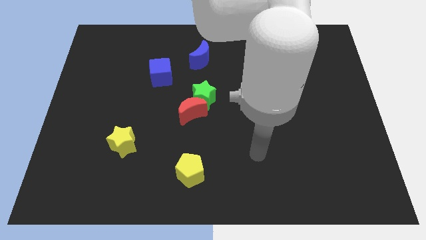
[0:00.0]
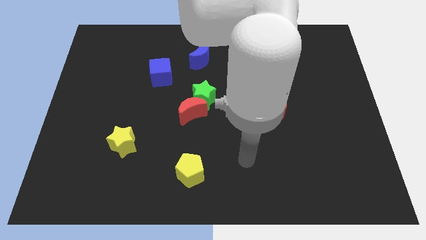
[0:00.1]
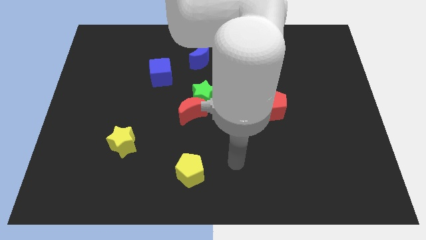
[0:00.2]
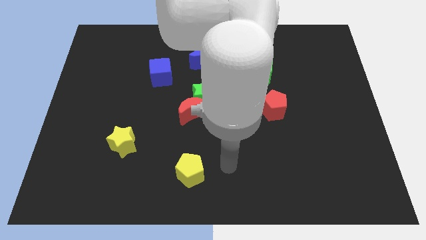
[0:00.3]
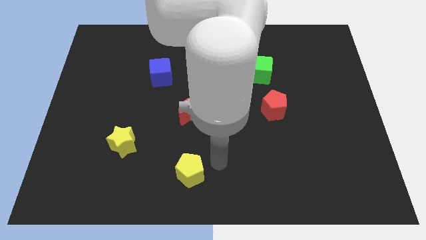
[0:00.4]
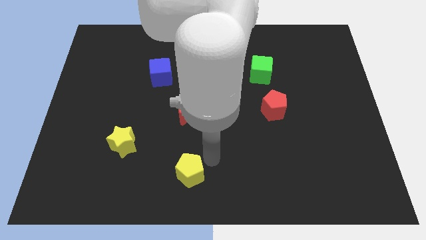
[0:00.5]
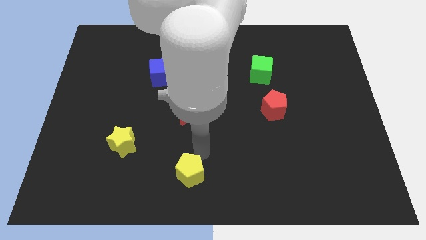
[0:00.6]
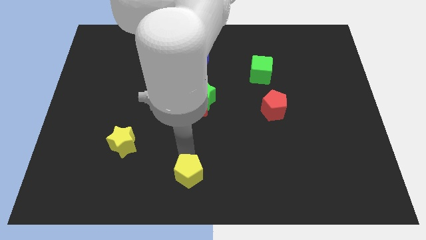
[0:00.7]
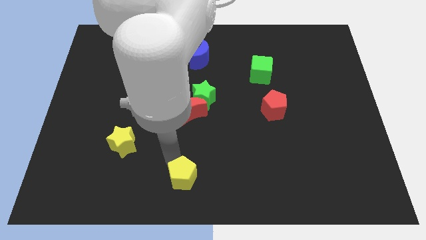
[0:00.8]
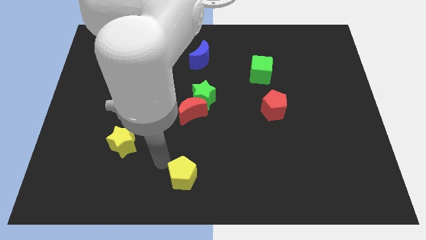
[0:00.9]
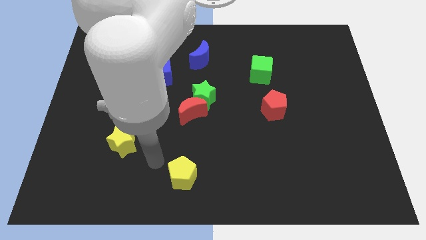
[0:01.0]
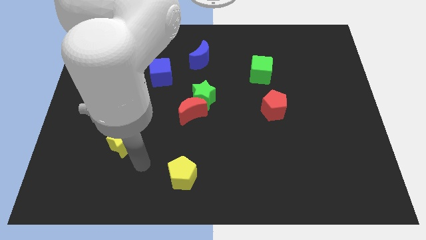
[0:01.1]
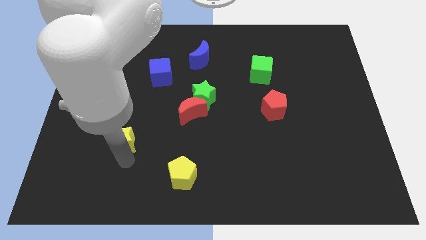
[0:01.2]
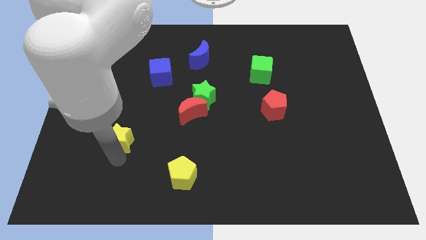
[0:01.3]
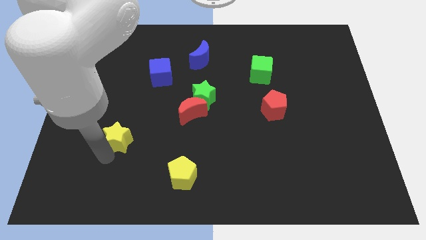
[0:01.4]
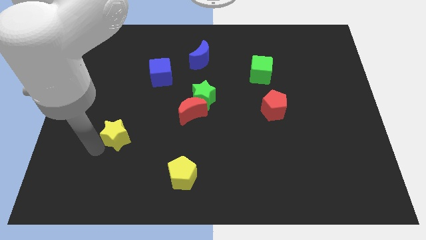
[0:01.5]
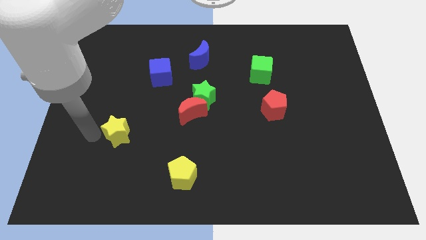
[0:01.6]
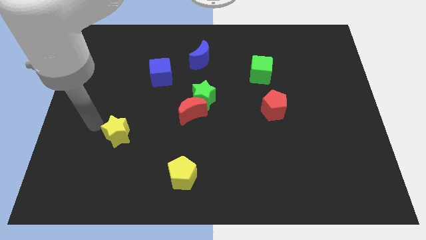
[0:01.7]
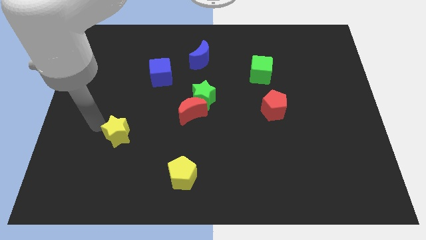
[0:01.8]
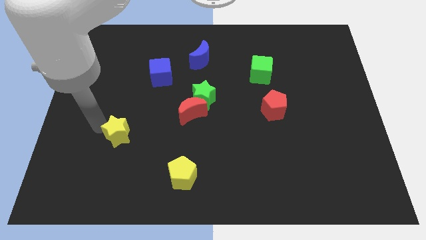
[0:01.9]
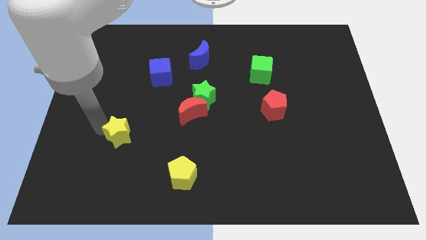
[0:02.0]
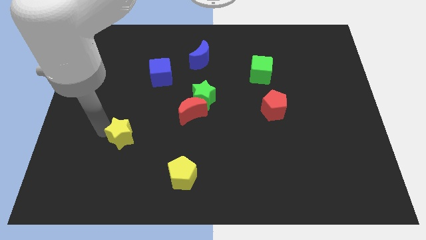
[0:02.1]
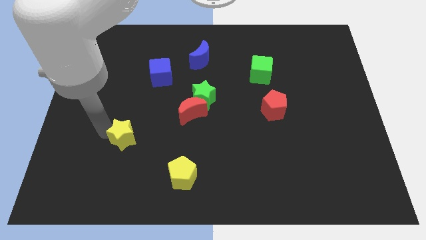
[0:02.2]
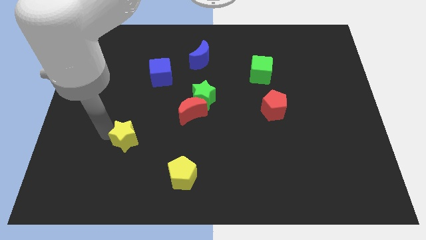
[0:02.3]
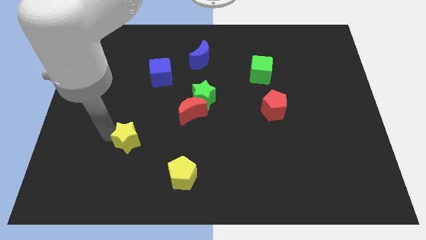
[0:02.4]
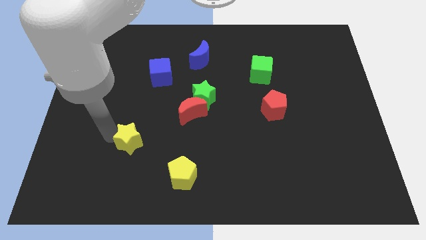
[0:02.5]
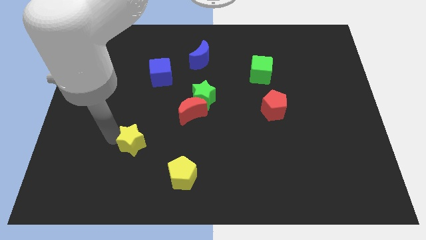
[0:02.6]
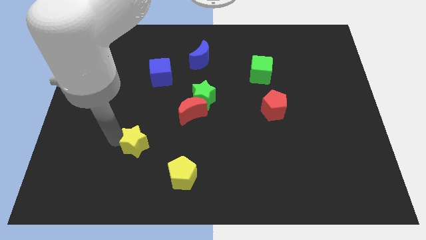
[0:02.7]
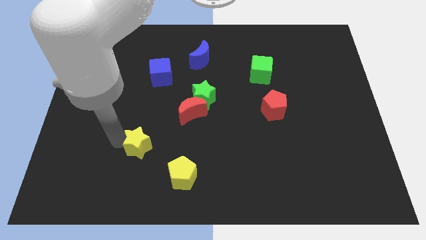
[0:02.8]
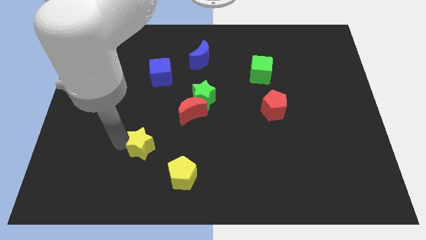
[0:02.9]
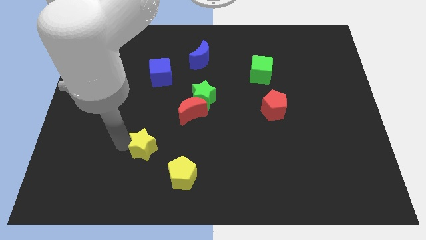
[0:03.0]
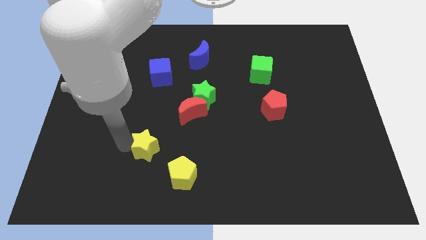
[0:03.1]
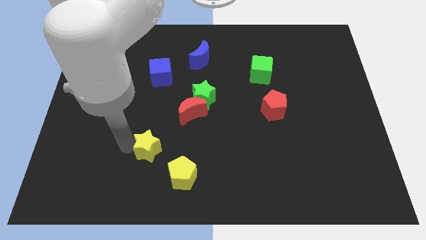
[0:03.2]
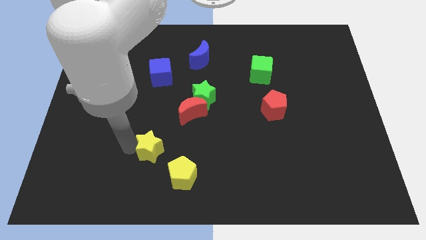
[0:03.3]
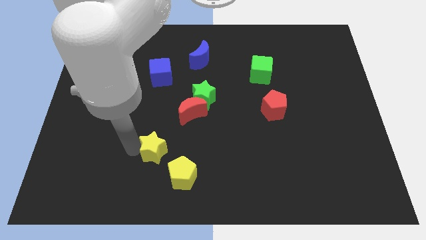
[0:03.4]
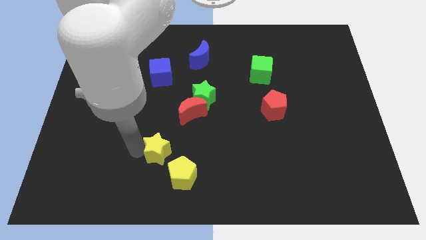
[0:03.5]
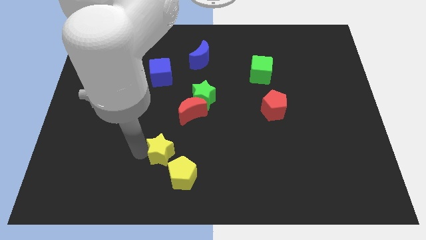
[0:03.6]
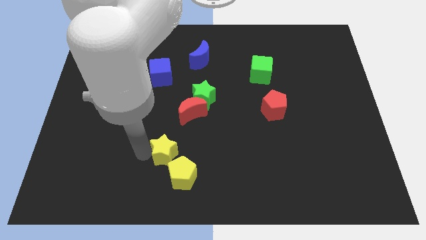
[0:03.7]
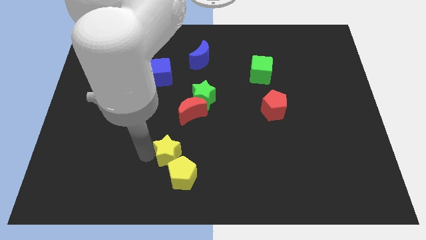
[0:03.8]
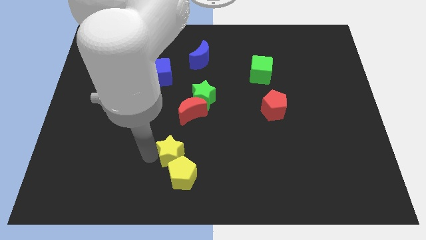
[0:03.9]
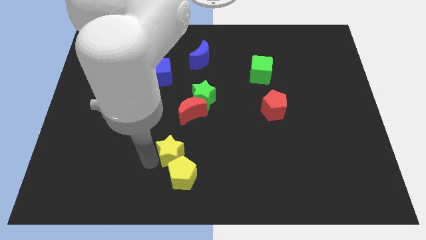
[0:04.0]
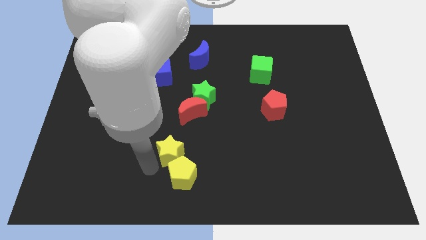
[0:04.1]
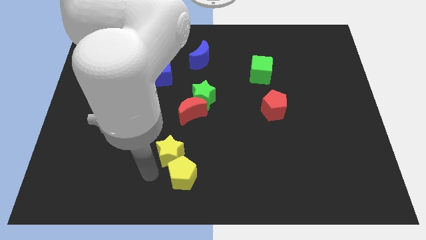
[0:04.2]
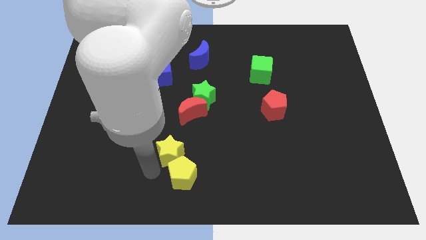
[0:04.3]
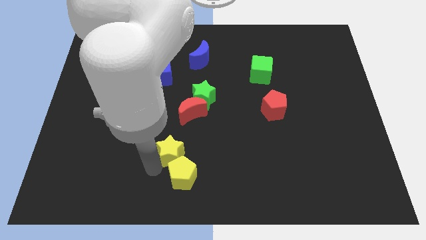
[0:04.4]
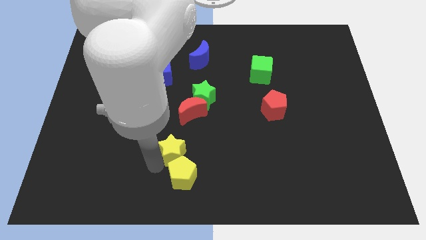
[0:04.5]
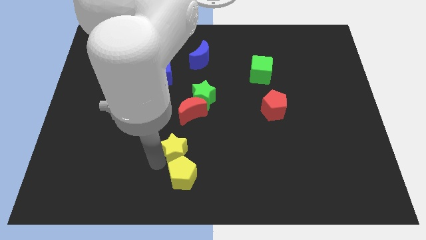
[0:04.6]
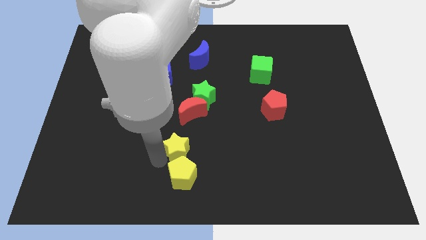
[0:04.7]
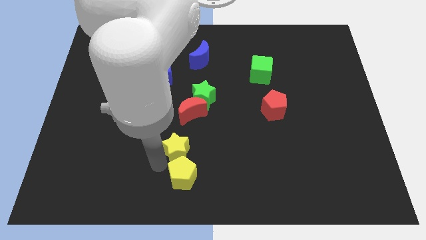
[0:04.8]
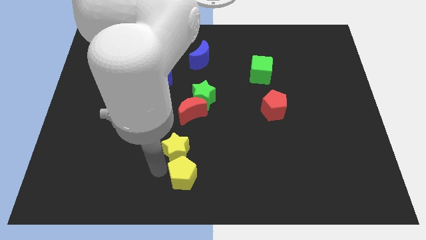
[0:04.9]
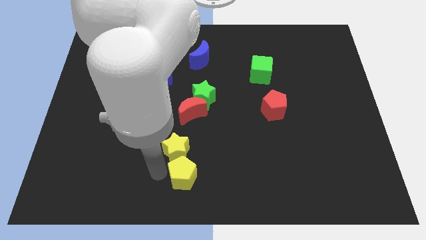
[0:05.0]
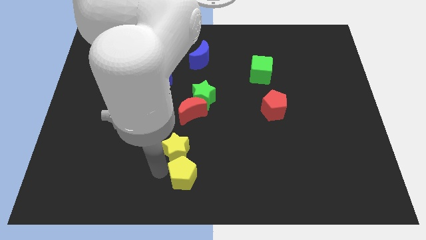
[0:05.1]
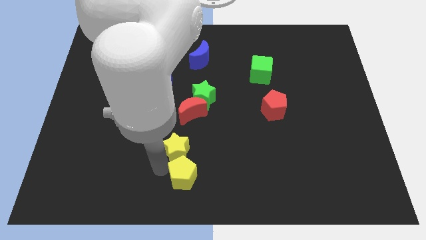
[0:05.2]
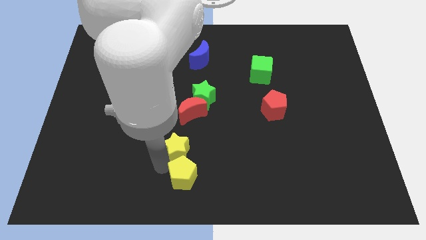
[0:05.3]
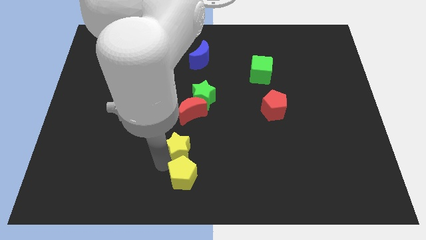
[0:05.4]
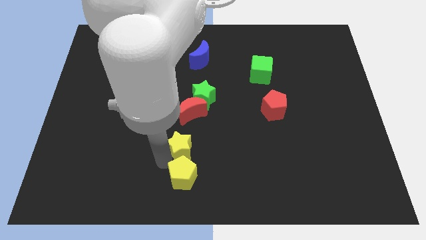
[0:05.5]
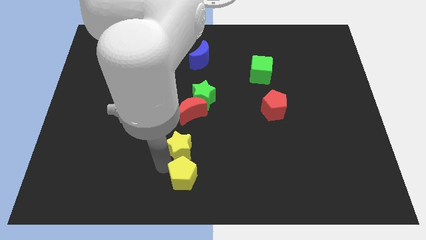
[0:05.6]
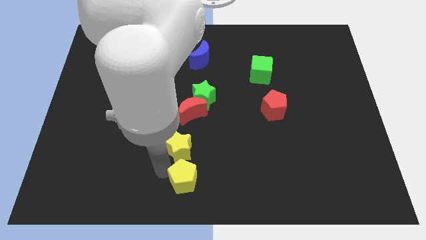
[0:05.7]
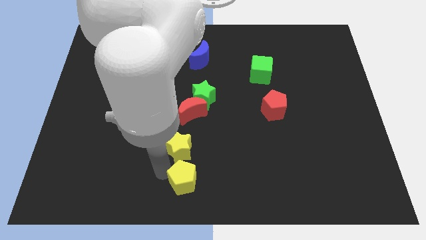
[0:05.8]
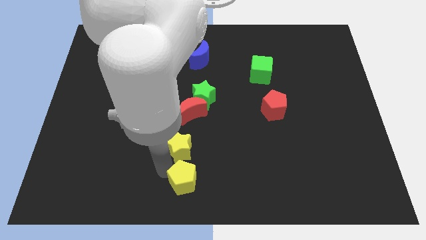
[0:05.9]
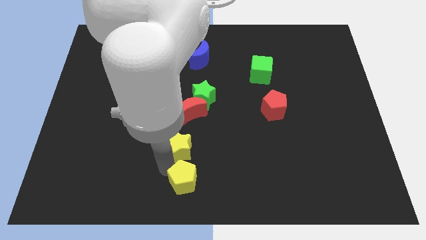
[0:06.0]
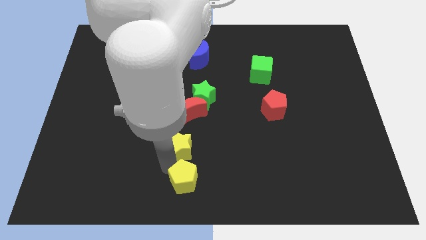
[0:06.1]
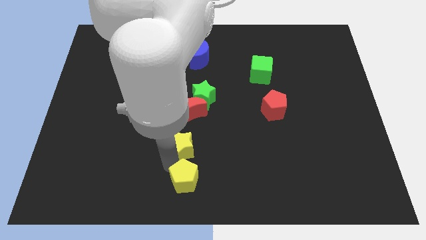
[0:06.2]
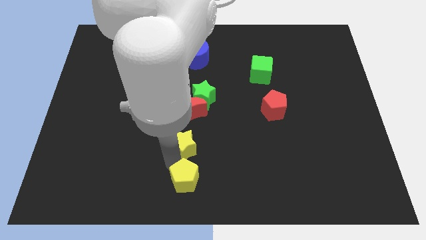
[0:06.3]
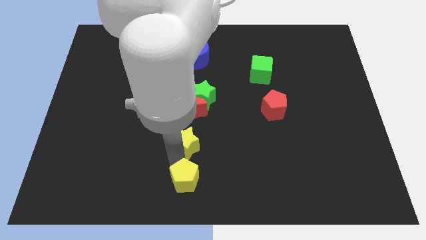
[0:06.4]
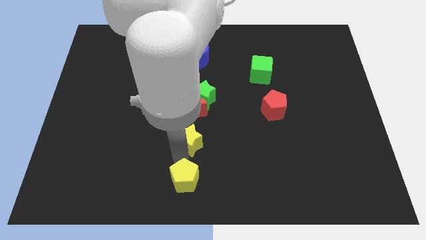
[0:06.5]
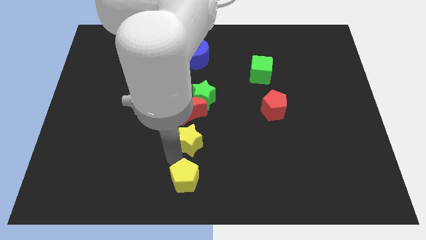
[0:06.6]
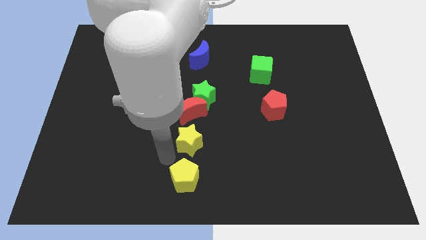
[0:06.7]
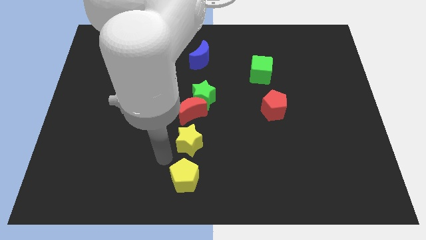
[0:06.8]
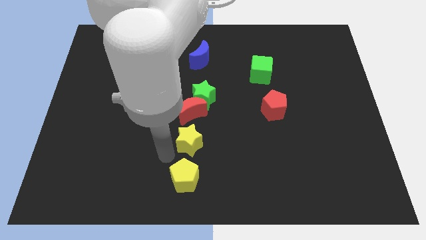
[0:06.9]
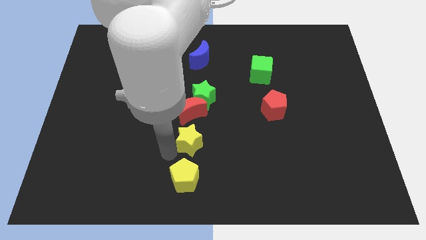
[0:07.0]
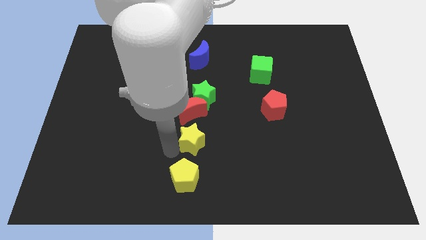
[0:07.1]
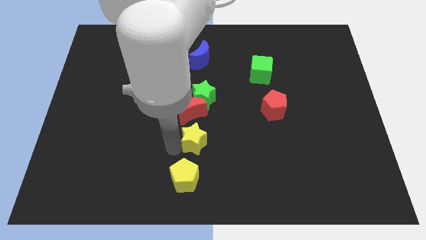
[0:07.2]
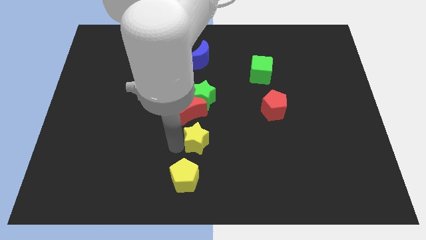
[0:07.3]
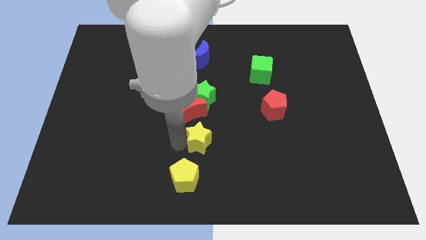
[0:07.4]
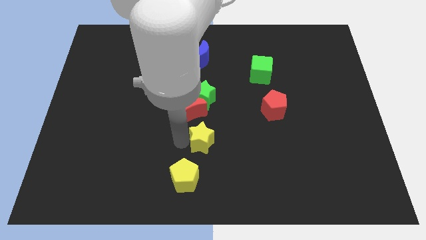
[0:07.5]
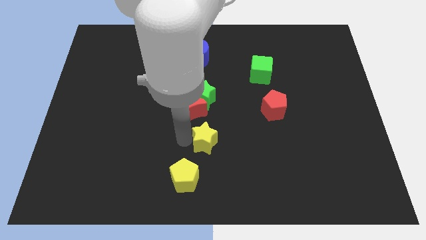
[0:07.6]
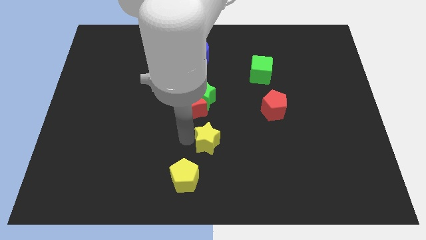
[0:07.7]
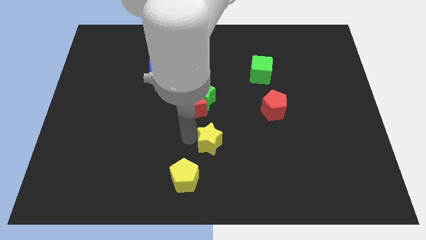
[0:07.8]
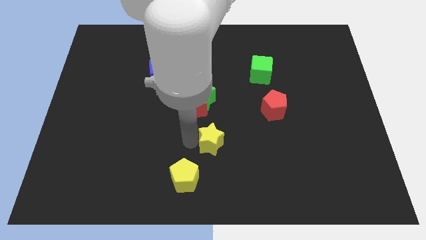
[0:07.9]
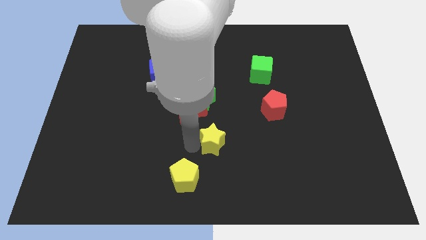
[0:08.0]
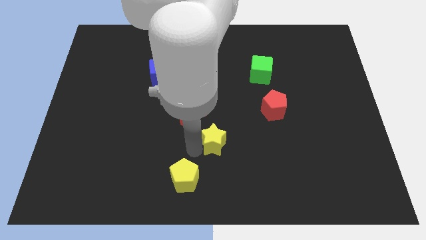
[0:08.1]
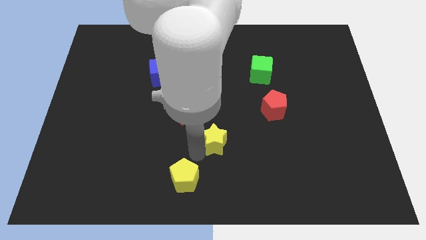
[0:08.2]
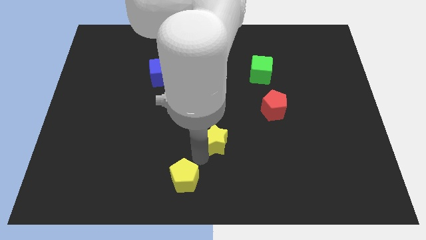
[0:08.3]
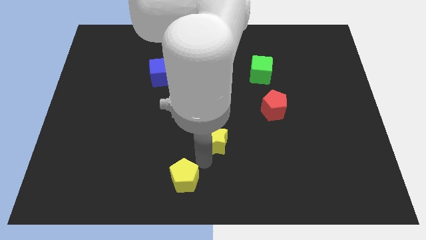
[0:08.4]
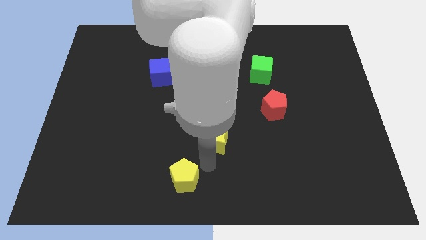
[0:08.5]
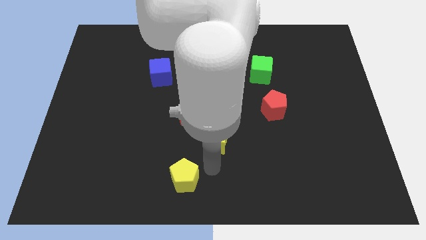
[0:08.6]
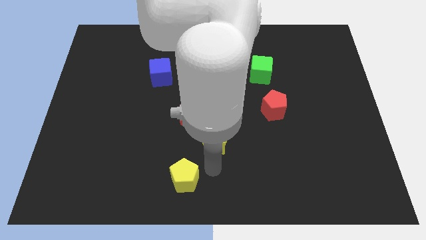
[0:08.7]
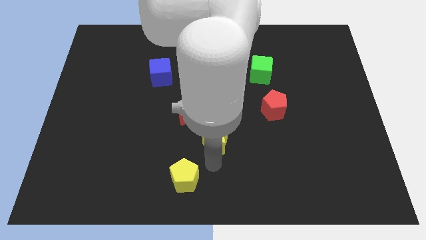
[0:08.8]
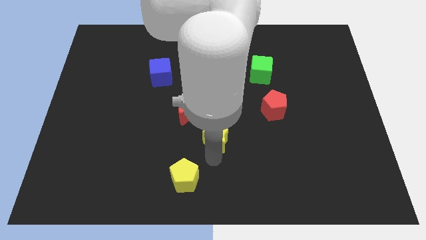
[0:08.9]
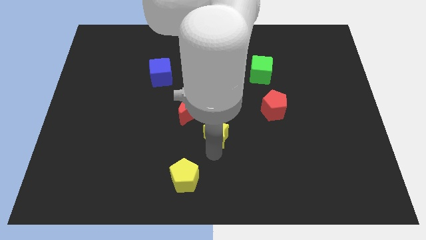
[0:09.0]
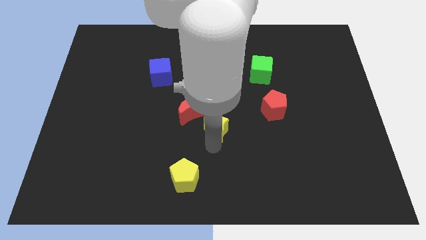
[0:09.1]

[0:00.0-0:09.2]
slide the yellow star to the bottom right side of the green star
